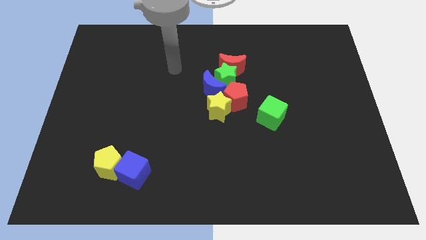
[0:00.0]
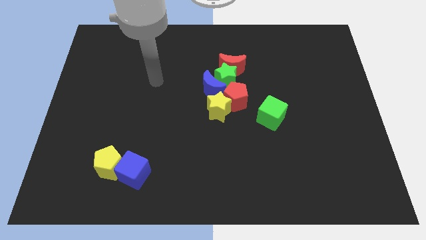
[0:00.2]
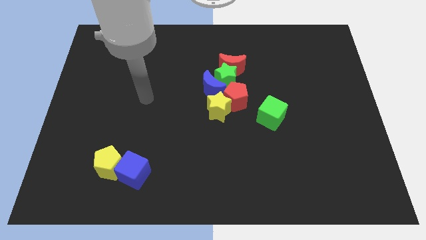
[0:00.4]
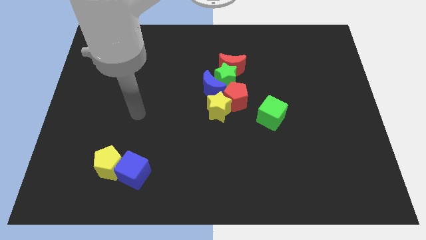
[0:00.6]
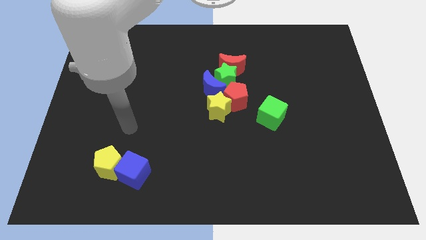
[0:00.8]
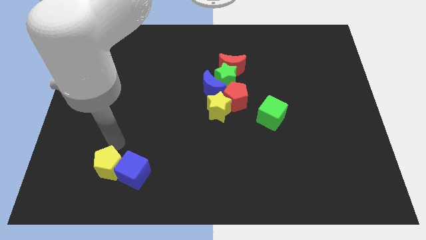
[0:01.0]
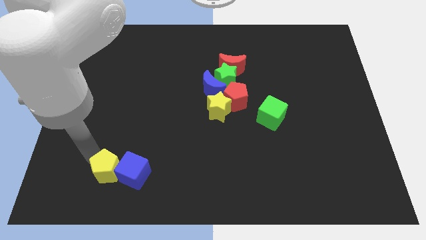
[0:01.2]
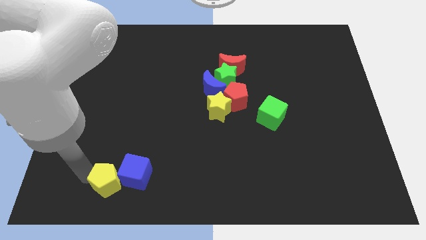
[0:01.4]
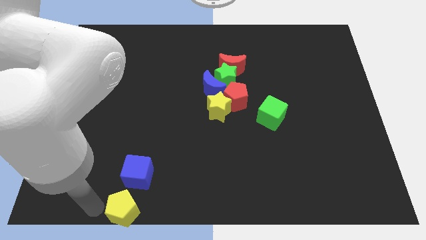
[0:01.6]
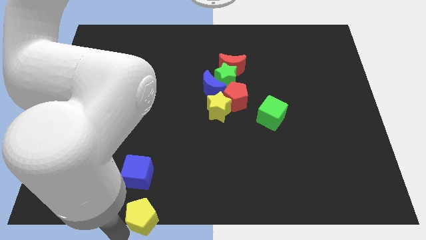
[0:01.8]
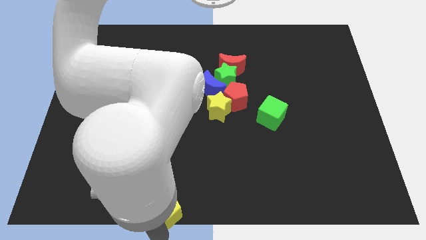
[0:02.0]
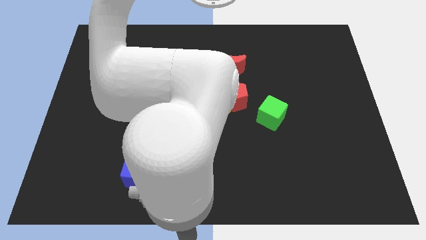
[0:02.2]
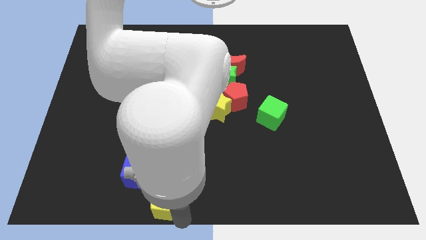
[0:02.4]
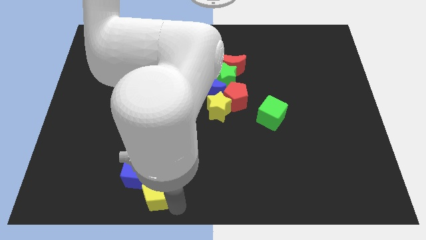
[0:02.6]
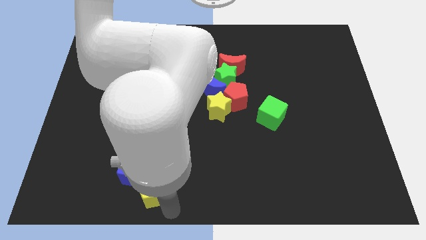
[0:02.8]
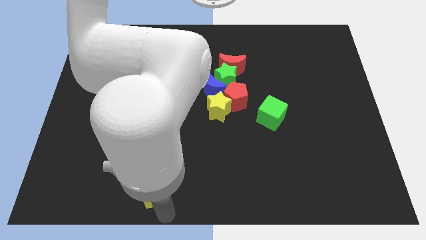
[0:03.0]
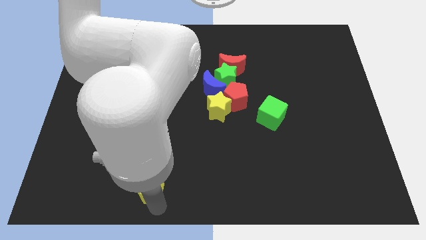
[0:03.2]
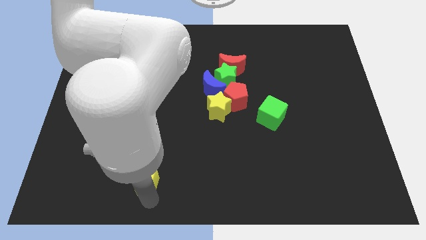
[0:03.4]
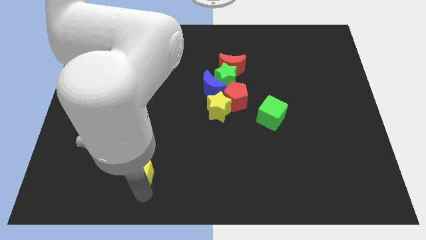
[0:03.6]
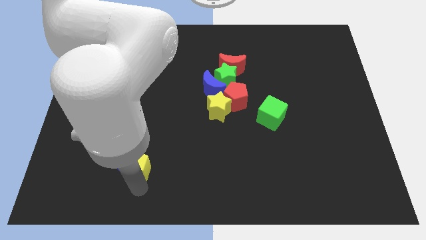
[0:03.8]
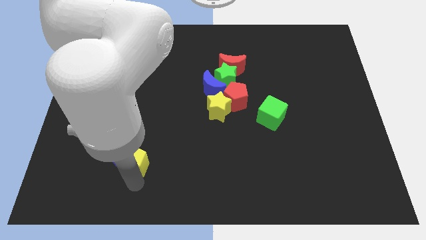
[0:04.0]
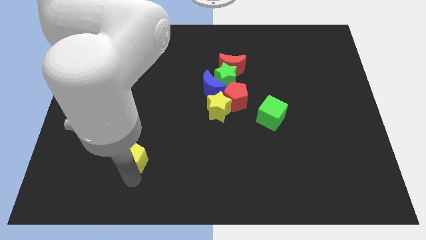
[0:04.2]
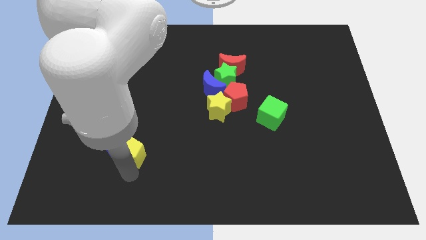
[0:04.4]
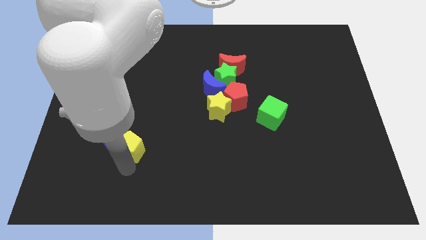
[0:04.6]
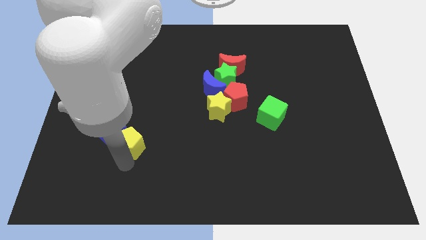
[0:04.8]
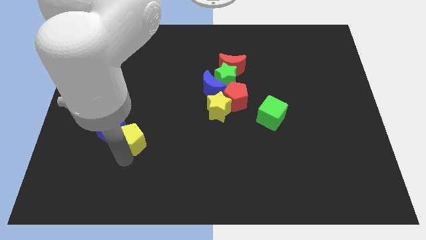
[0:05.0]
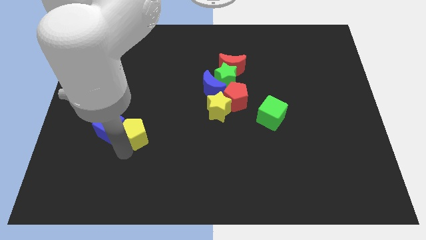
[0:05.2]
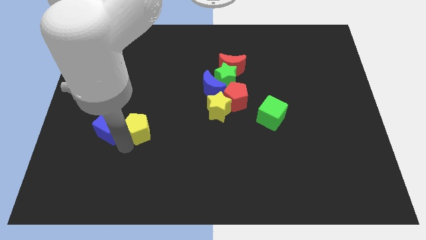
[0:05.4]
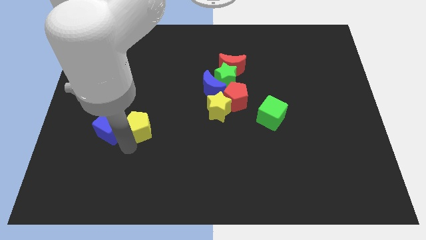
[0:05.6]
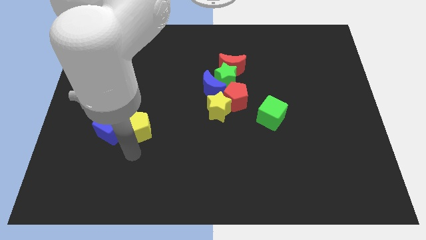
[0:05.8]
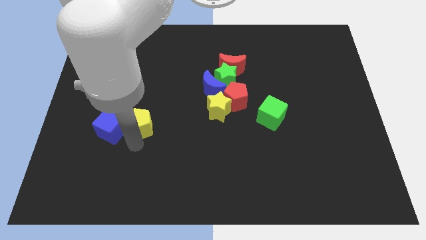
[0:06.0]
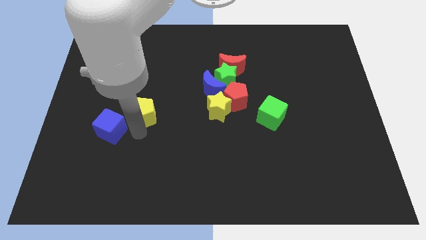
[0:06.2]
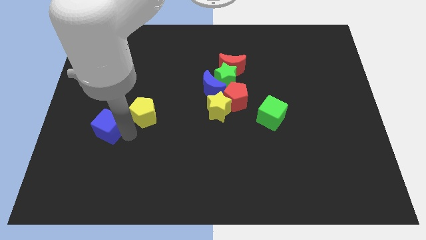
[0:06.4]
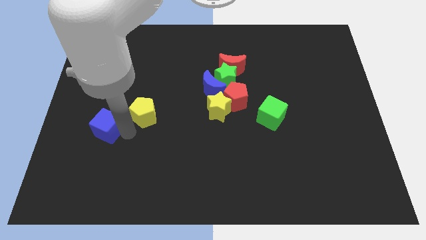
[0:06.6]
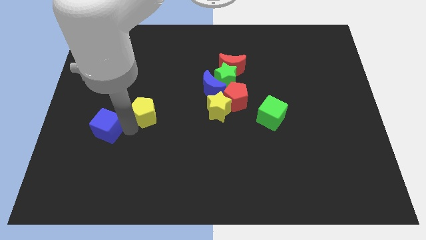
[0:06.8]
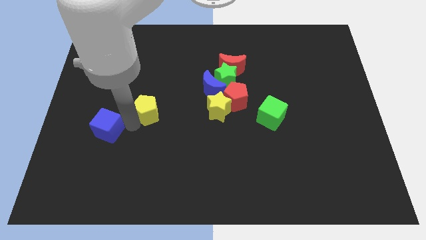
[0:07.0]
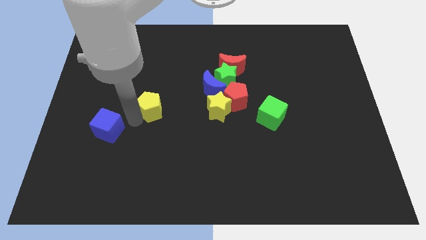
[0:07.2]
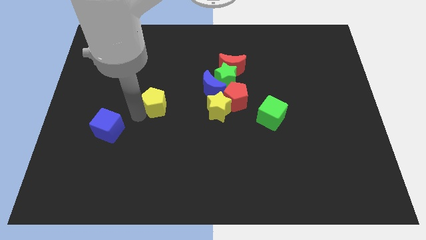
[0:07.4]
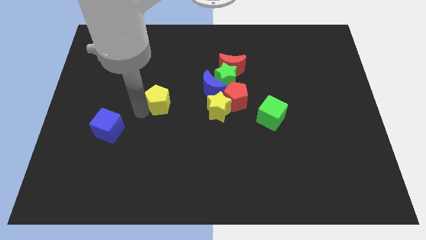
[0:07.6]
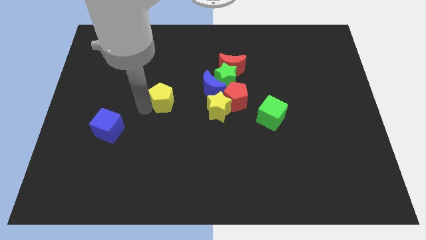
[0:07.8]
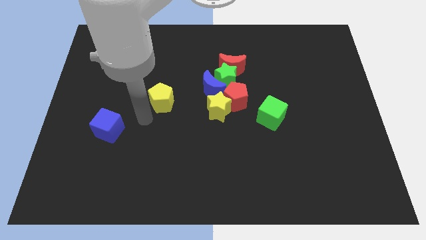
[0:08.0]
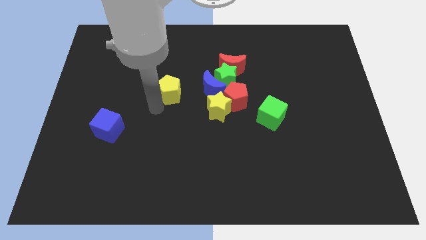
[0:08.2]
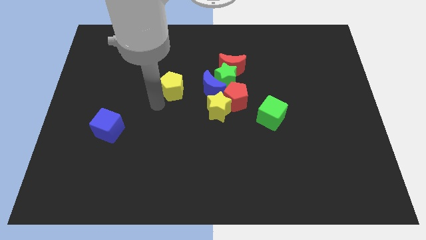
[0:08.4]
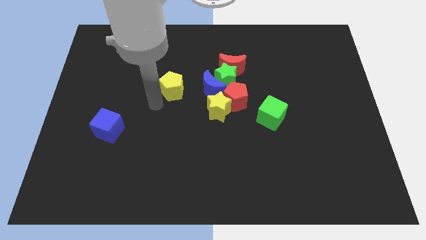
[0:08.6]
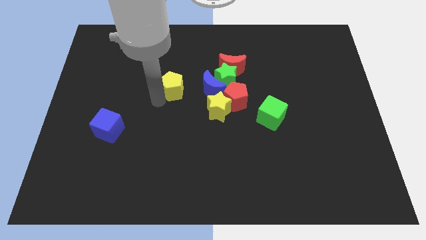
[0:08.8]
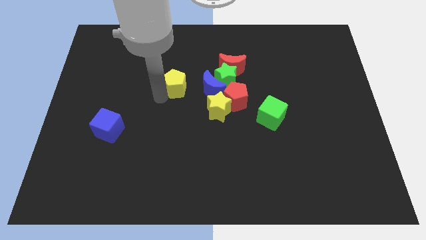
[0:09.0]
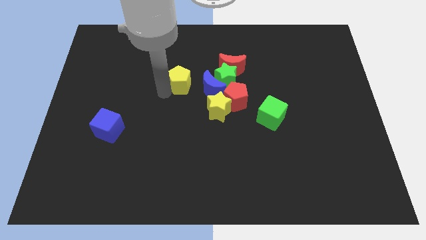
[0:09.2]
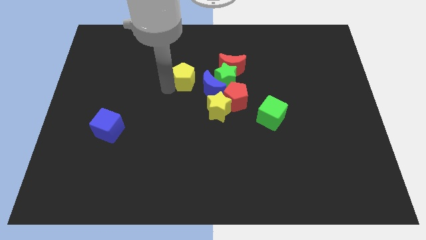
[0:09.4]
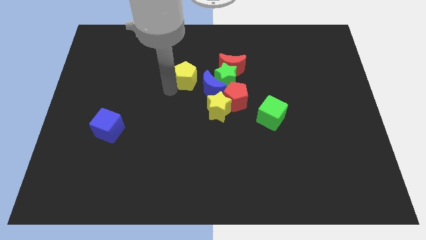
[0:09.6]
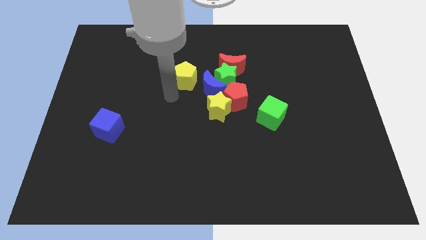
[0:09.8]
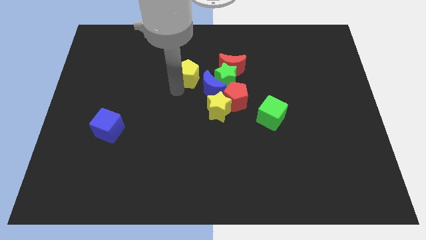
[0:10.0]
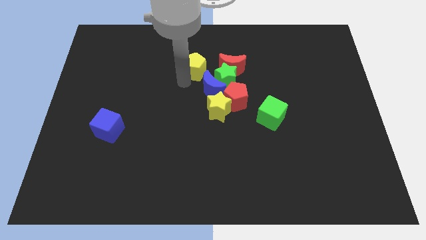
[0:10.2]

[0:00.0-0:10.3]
push the yellow pentagon above the blue moon
